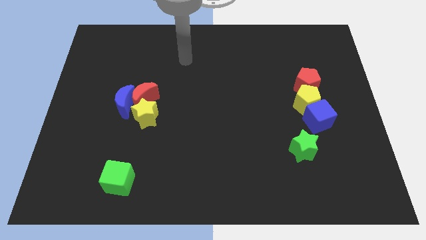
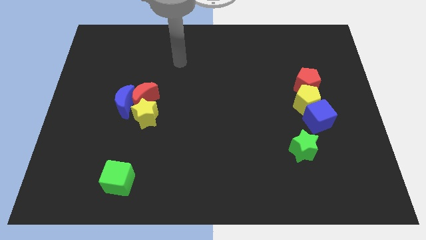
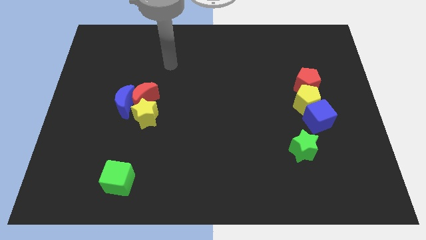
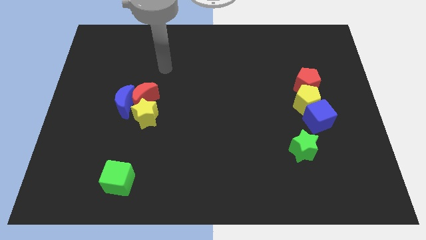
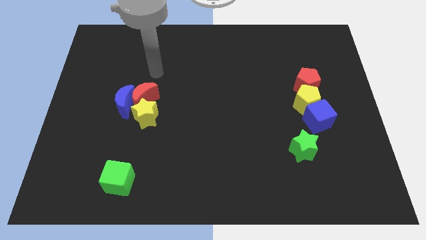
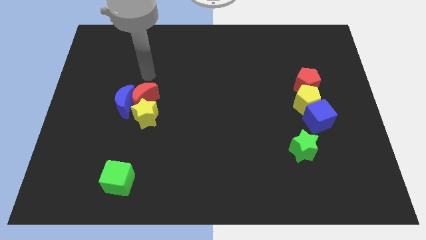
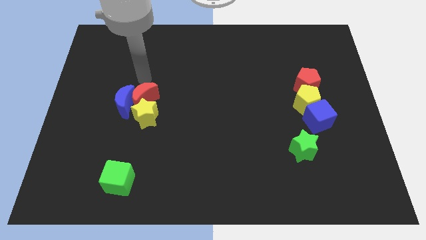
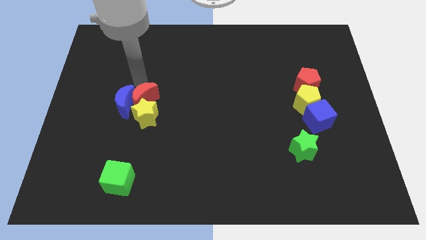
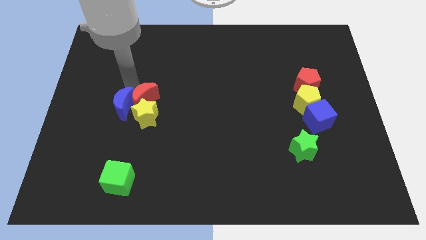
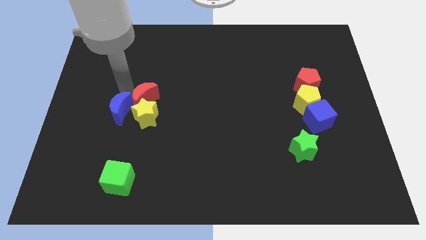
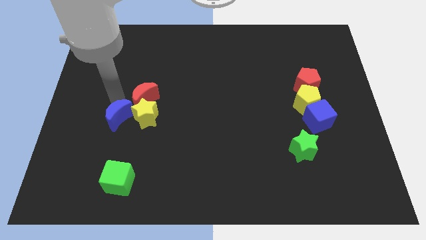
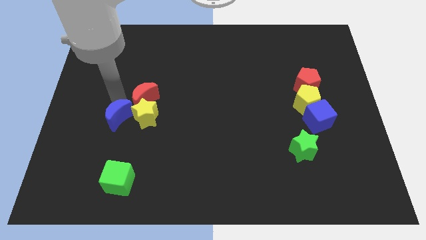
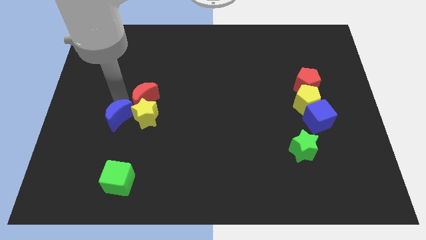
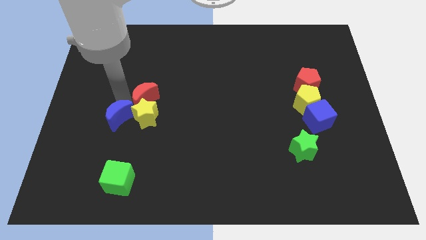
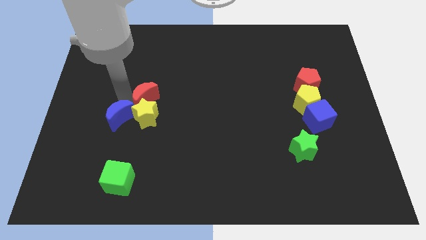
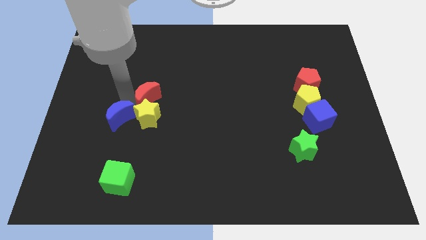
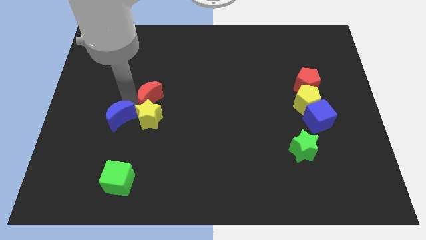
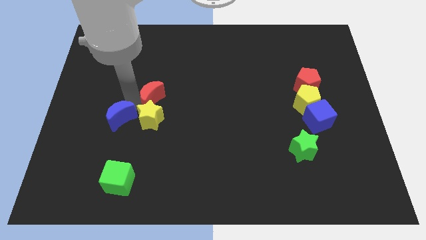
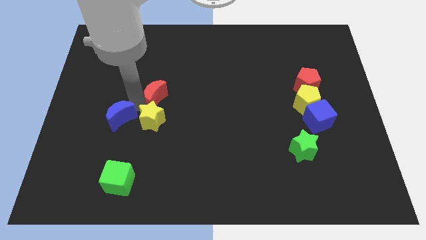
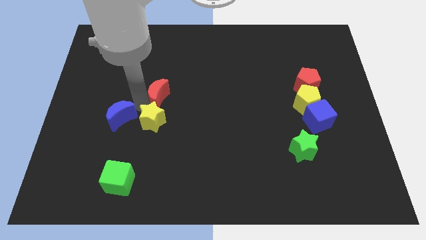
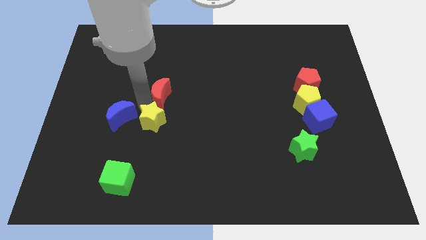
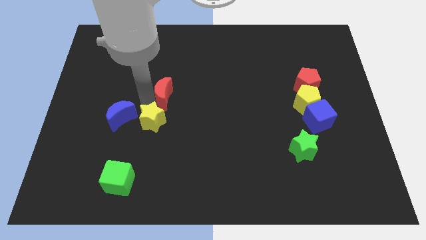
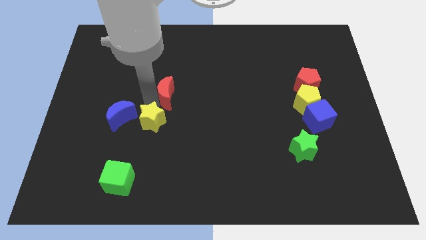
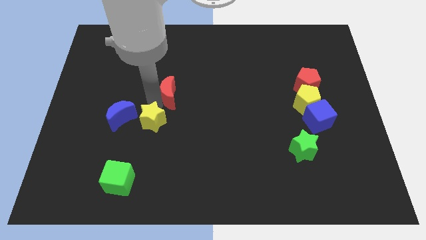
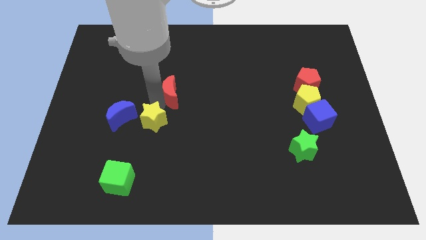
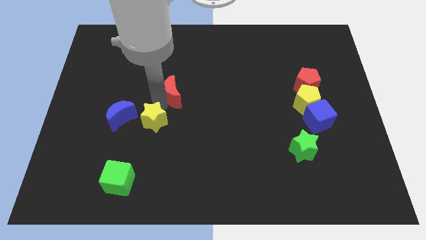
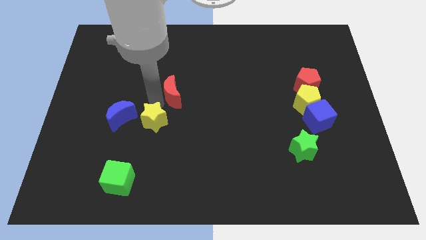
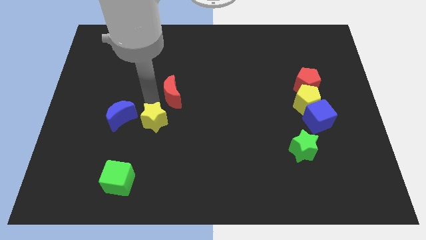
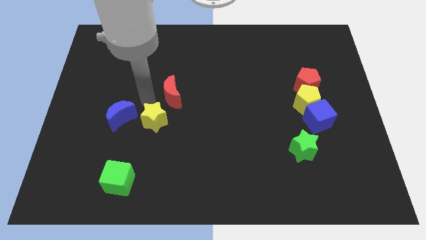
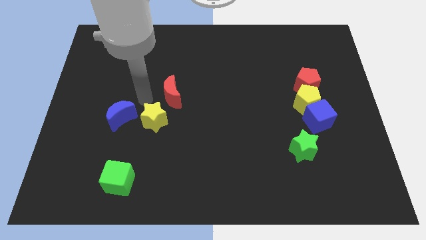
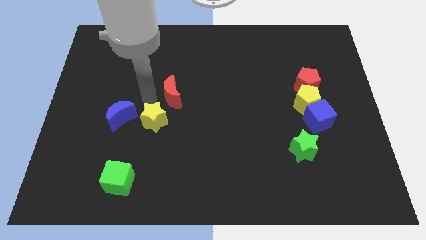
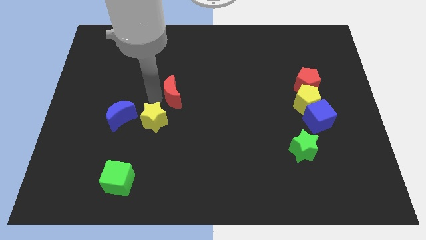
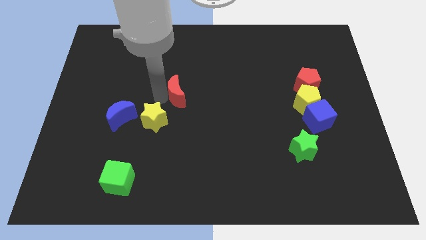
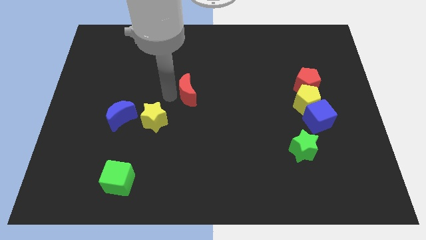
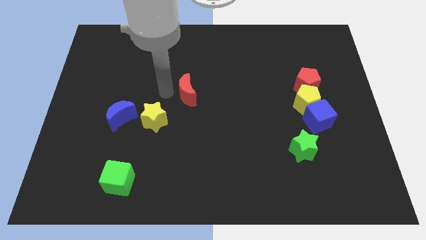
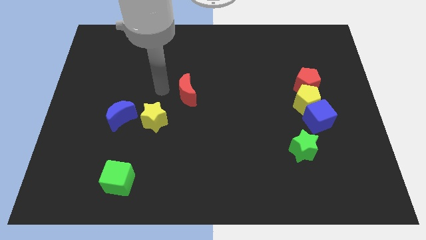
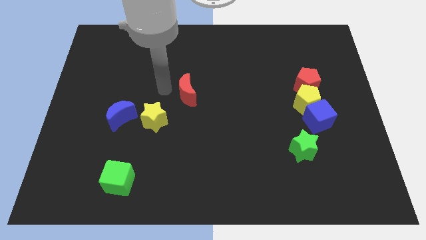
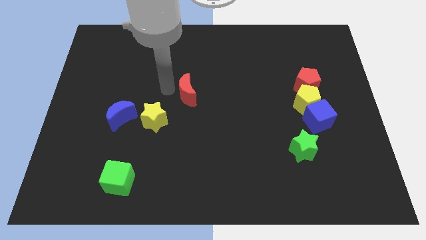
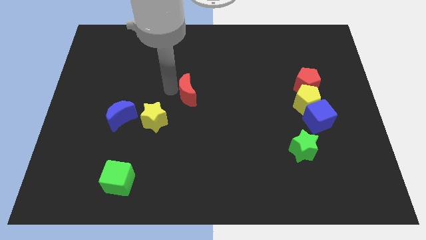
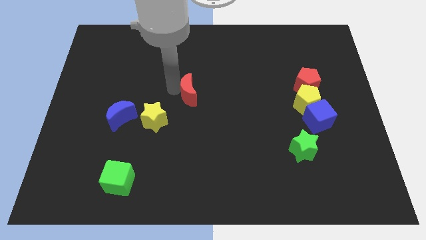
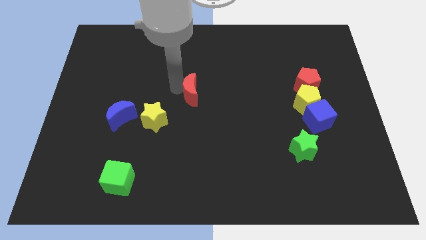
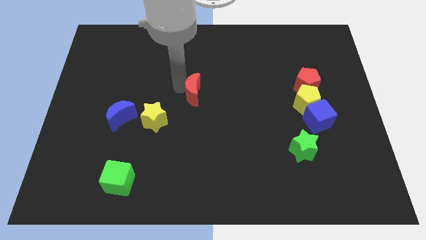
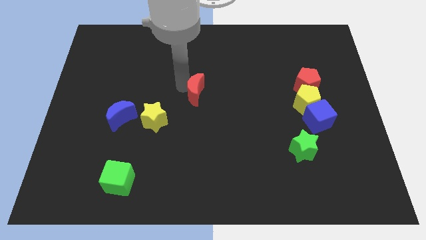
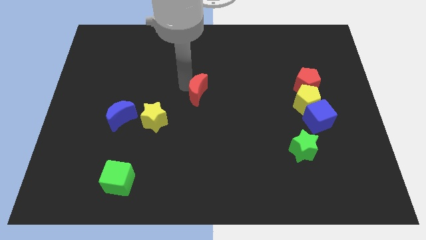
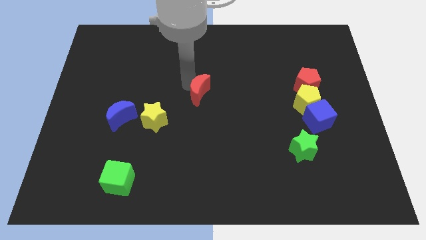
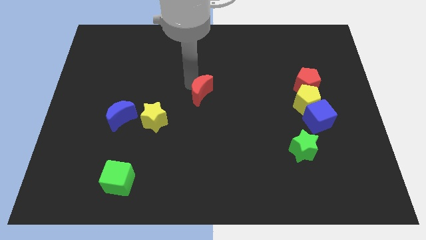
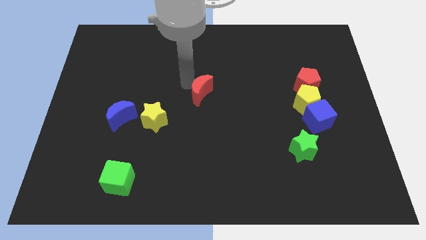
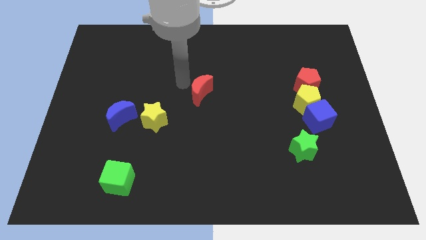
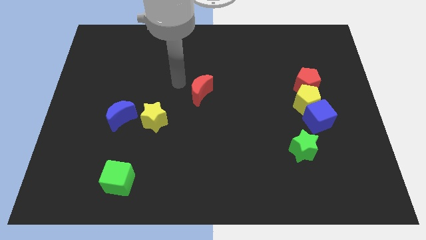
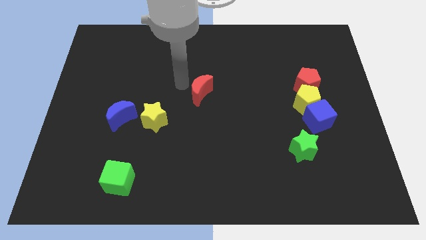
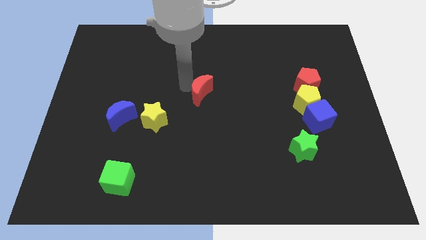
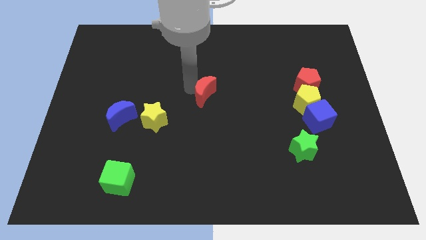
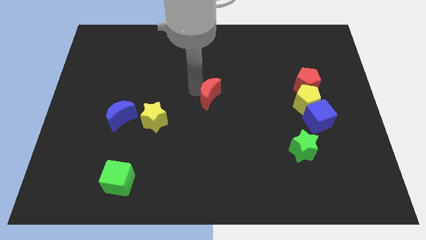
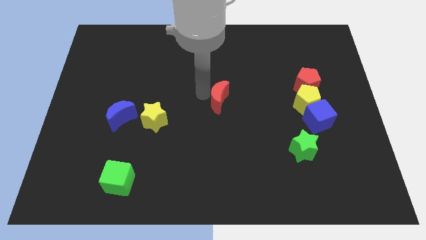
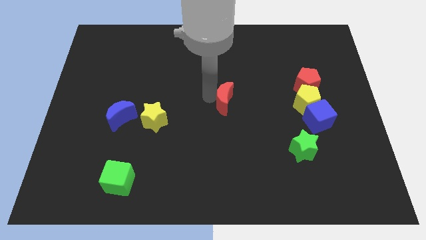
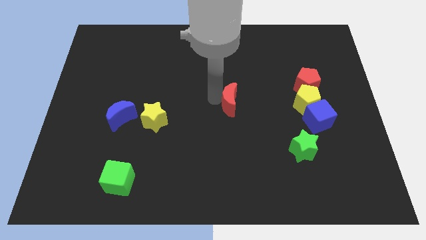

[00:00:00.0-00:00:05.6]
move the red moon right

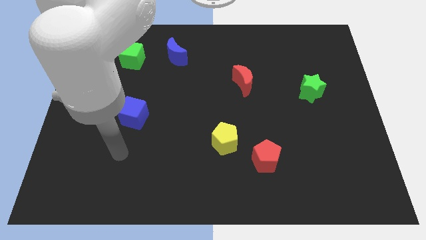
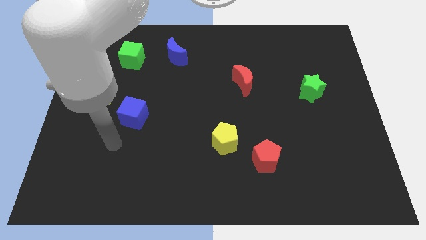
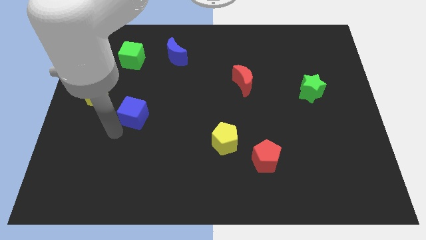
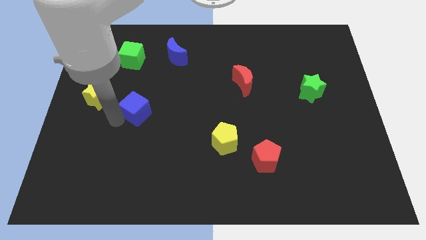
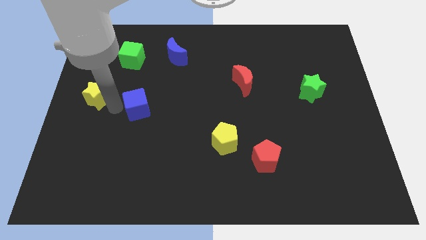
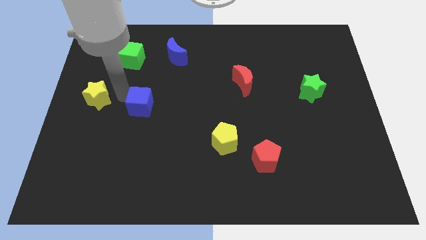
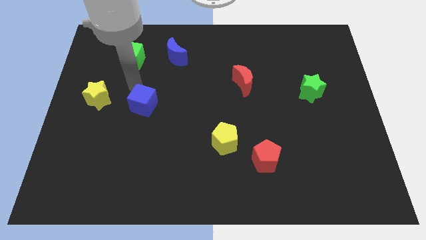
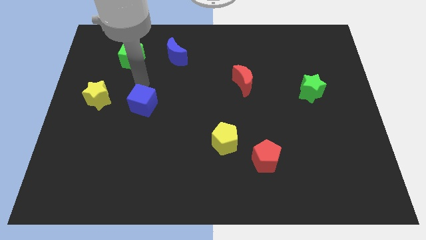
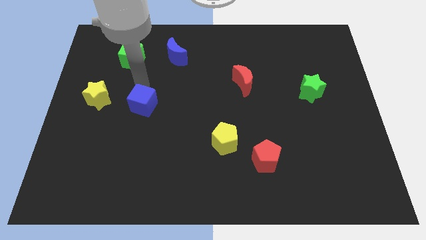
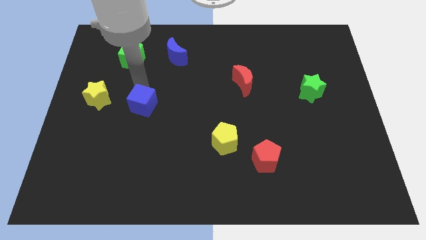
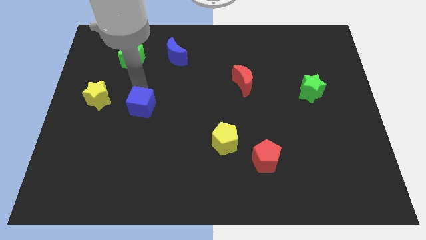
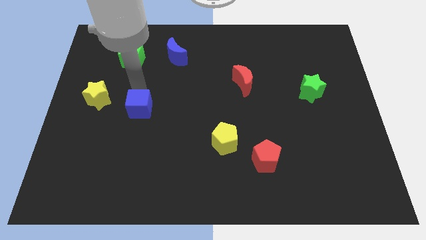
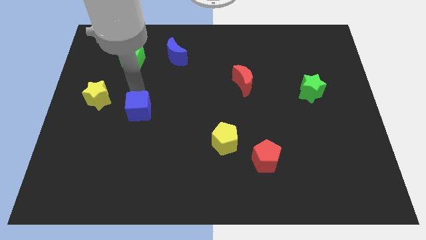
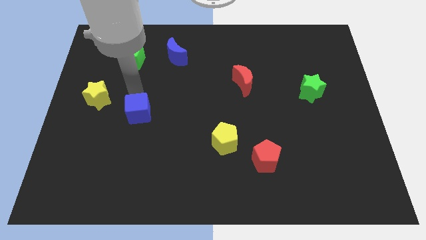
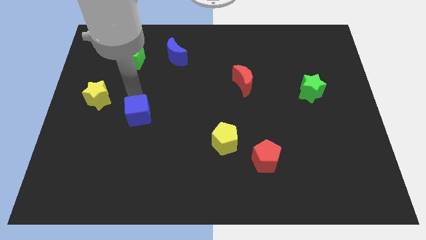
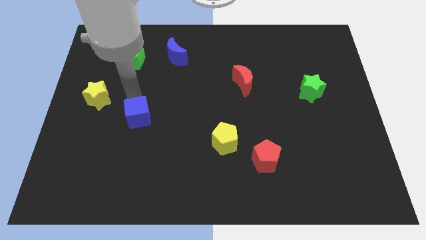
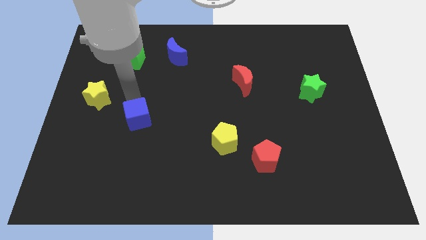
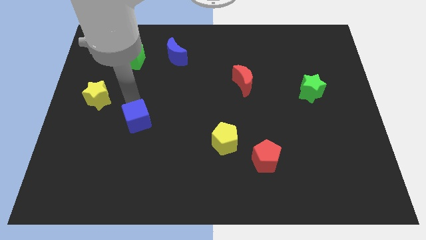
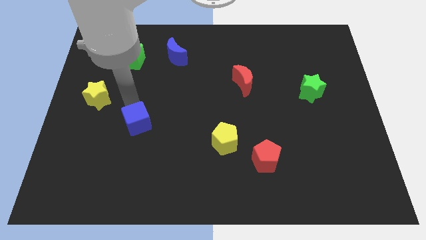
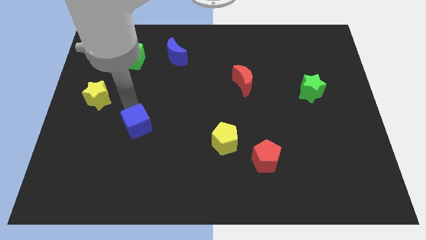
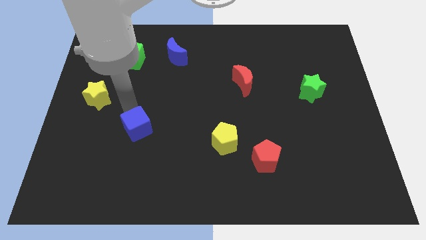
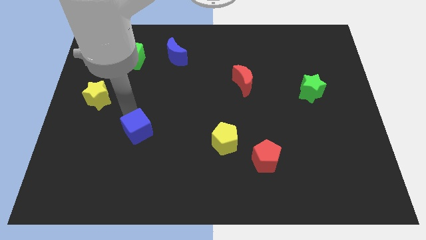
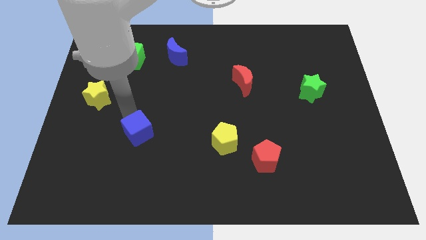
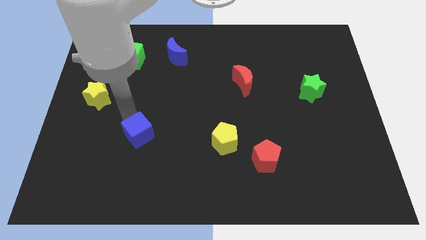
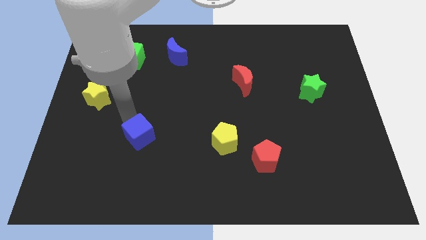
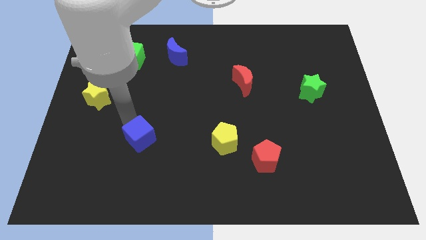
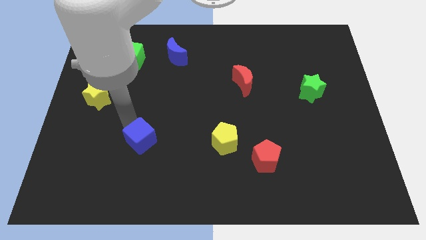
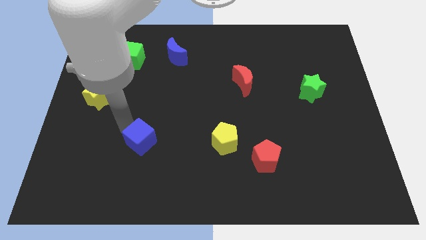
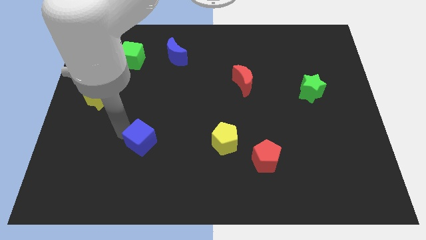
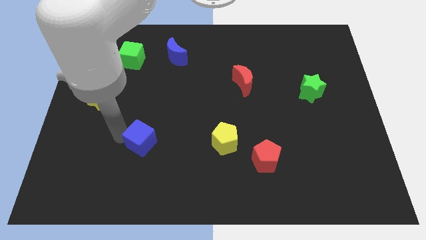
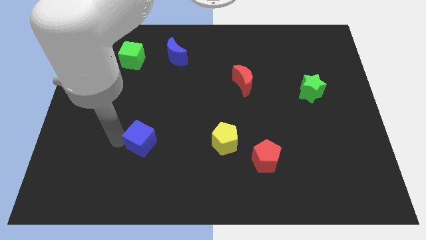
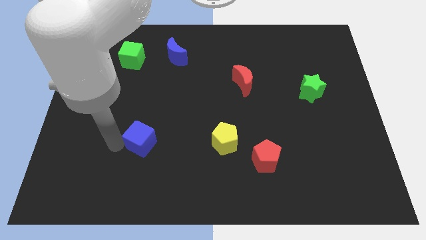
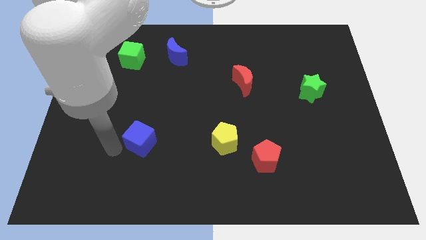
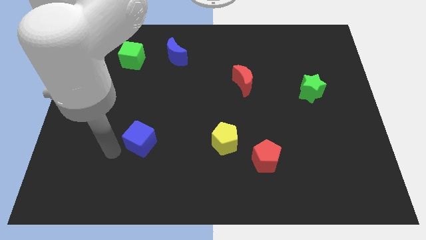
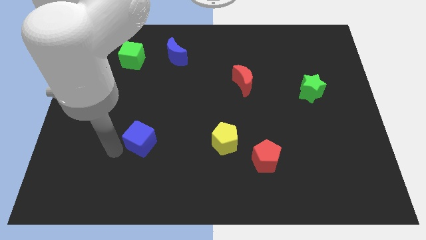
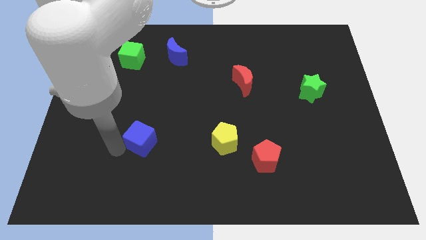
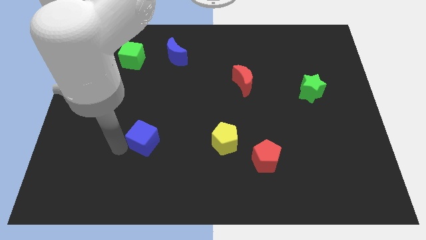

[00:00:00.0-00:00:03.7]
push the blue cube down and to the right a little
